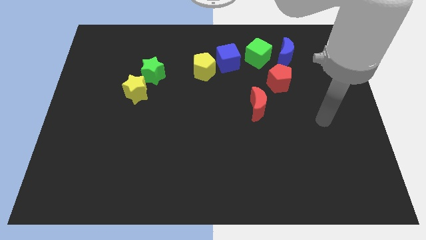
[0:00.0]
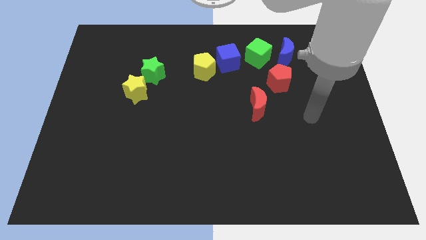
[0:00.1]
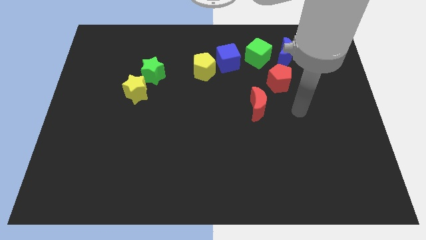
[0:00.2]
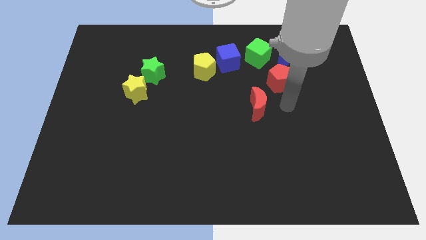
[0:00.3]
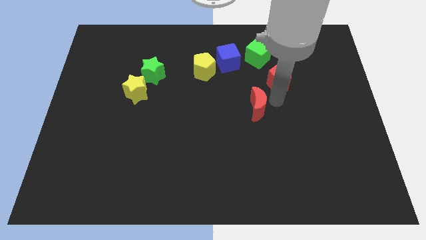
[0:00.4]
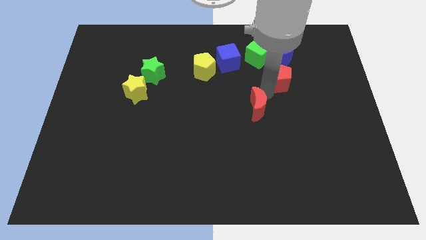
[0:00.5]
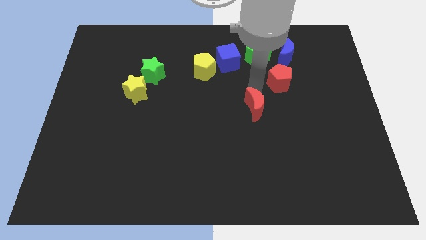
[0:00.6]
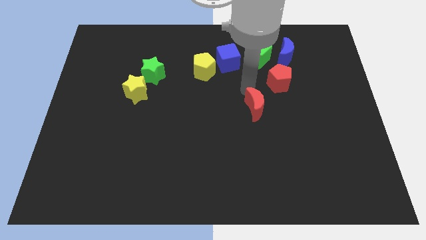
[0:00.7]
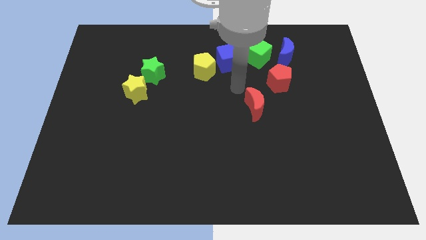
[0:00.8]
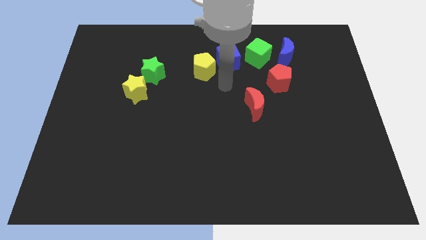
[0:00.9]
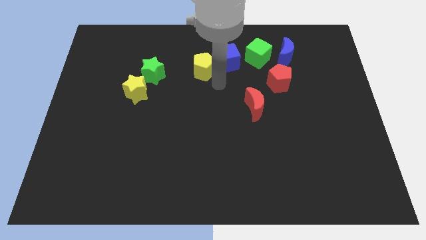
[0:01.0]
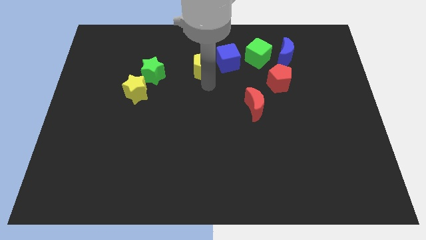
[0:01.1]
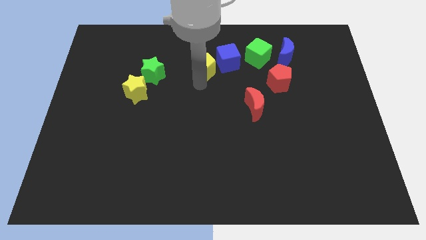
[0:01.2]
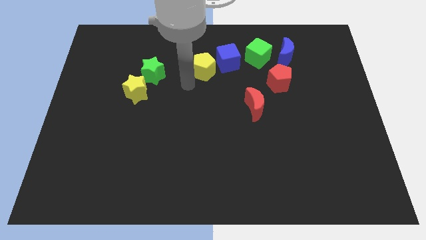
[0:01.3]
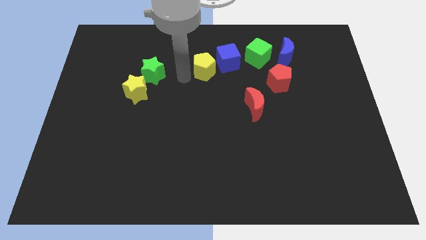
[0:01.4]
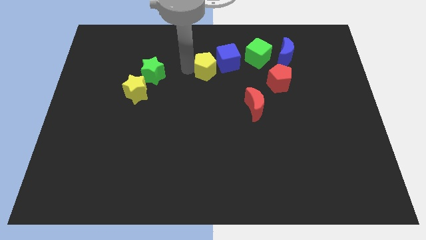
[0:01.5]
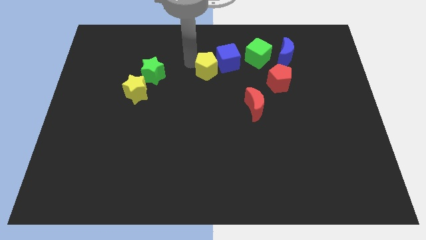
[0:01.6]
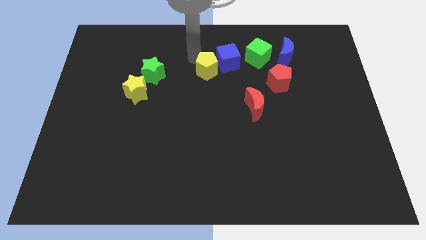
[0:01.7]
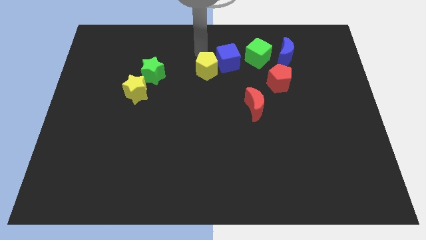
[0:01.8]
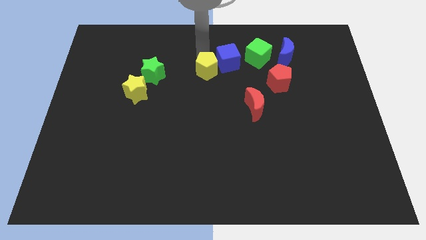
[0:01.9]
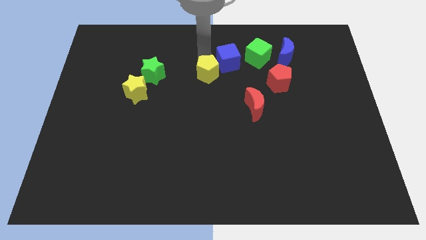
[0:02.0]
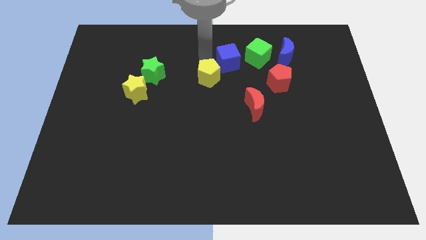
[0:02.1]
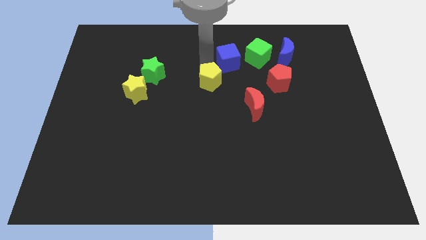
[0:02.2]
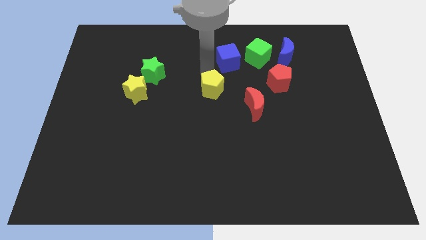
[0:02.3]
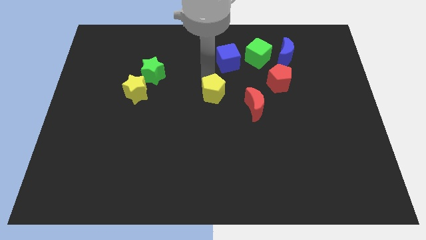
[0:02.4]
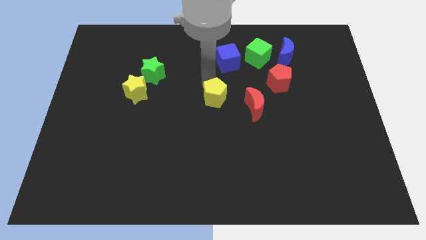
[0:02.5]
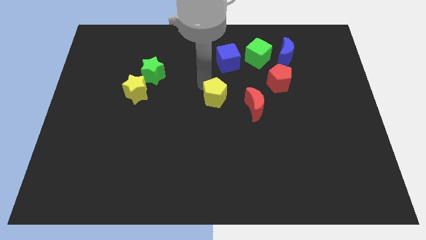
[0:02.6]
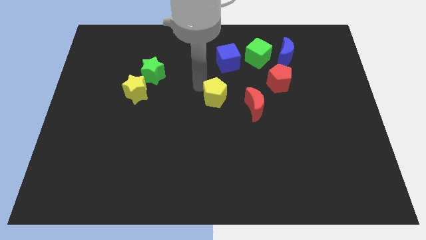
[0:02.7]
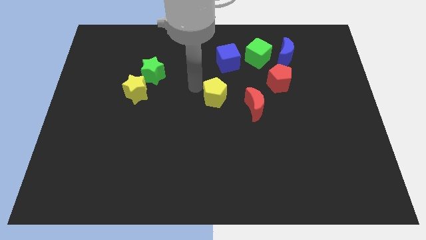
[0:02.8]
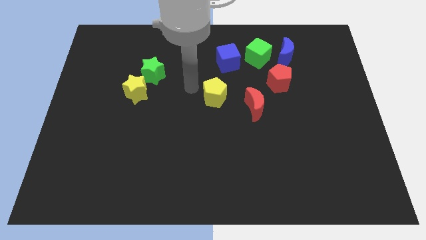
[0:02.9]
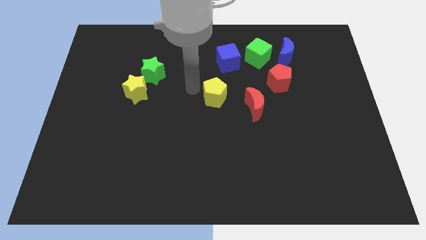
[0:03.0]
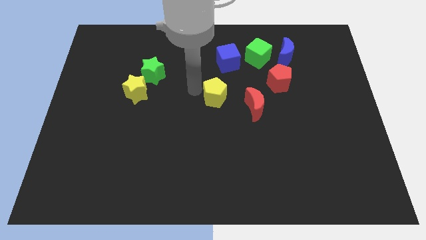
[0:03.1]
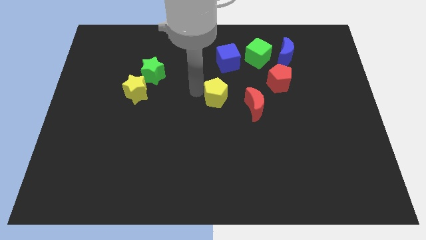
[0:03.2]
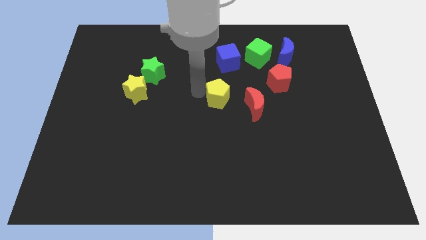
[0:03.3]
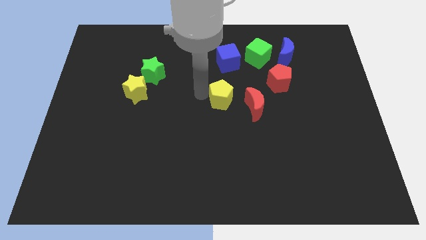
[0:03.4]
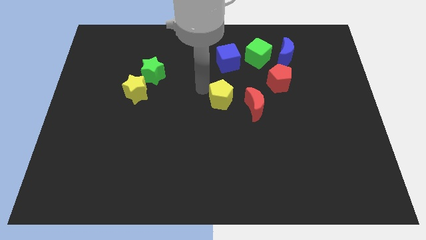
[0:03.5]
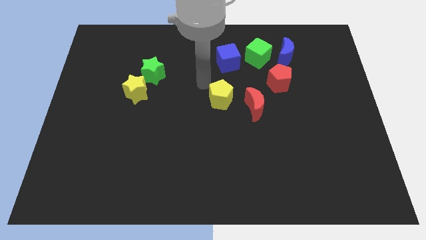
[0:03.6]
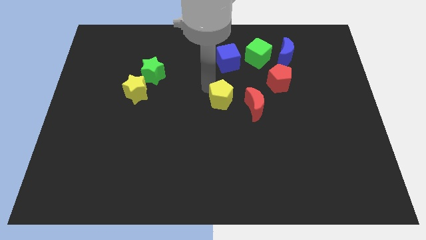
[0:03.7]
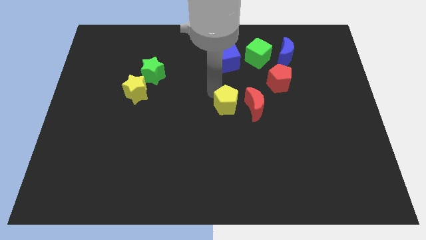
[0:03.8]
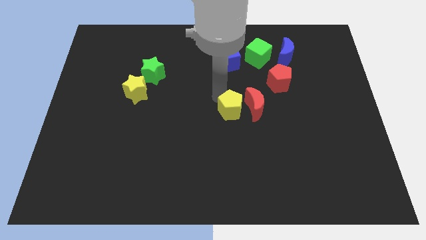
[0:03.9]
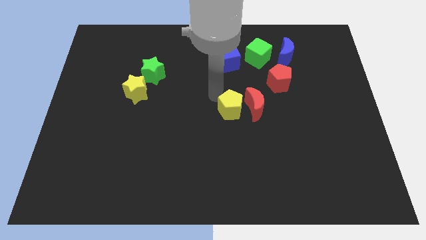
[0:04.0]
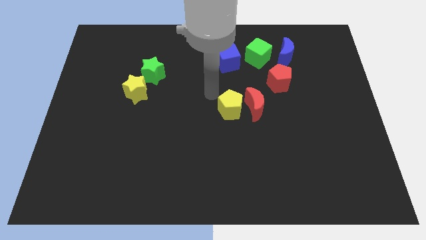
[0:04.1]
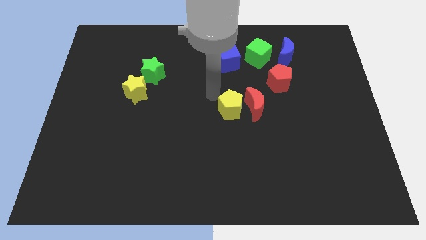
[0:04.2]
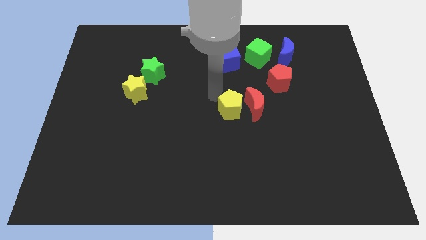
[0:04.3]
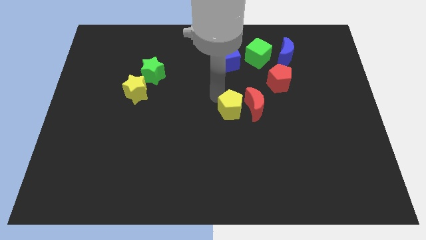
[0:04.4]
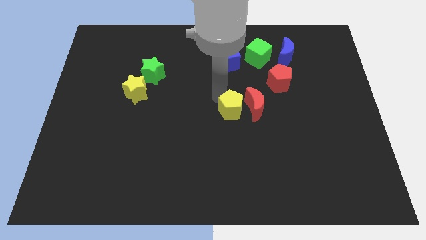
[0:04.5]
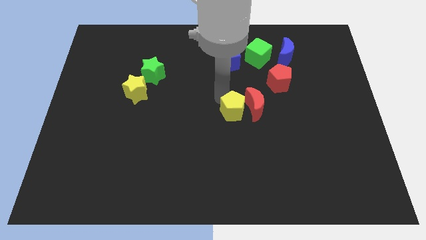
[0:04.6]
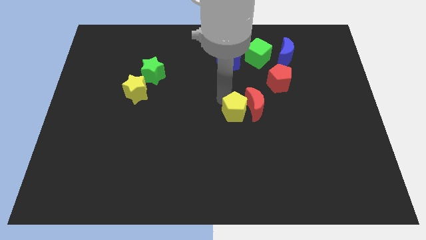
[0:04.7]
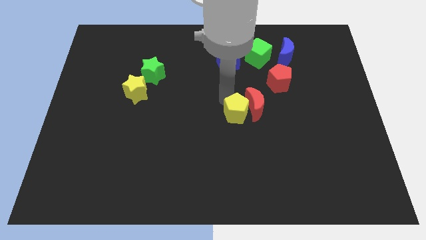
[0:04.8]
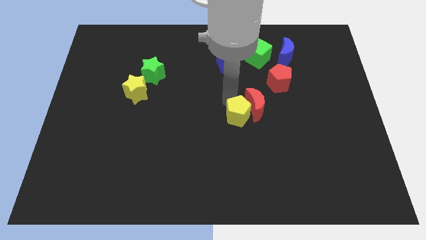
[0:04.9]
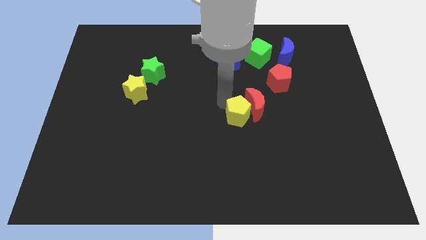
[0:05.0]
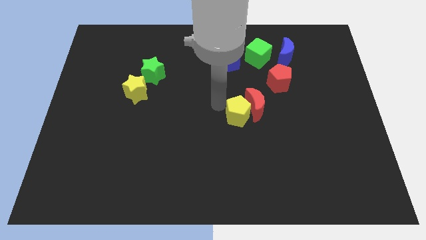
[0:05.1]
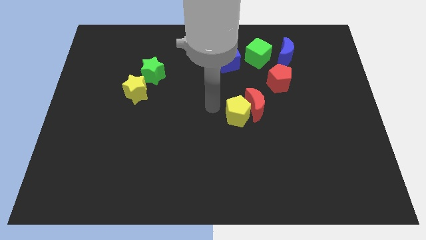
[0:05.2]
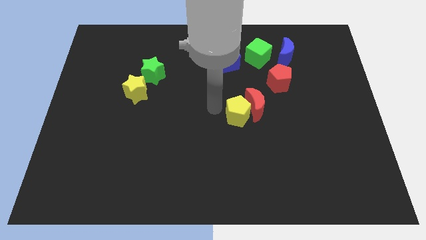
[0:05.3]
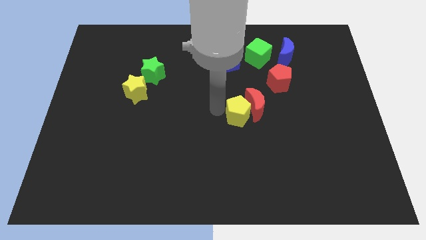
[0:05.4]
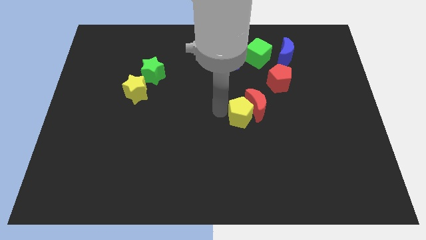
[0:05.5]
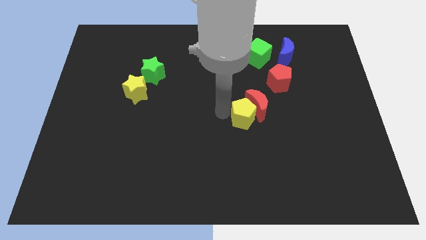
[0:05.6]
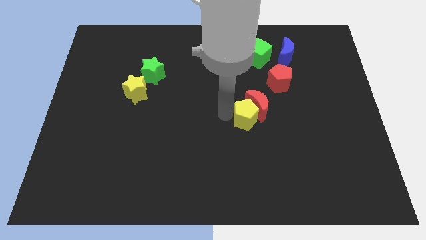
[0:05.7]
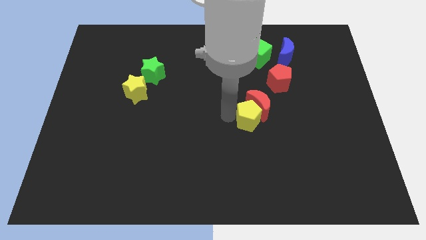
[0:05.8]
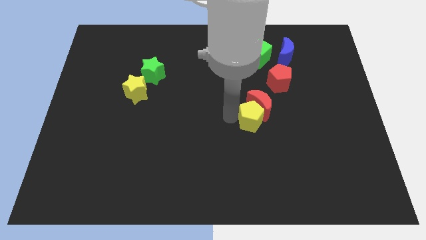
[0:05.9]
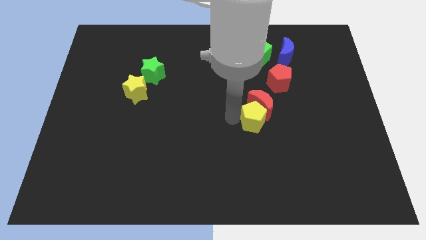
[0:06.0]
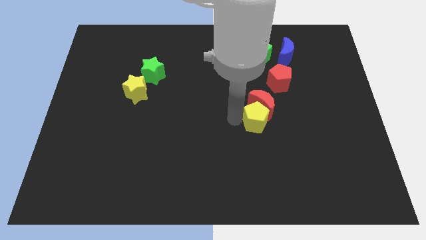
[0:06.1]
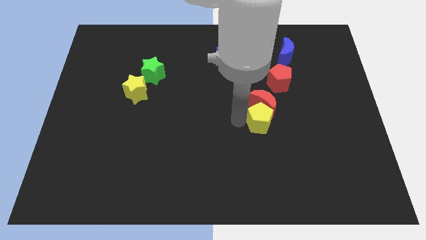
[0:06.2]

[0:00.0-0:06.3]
slide the yellow pentagon downwards and to the right

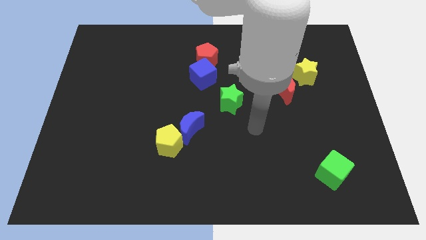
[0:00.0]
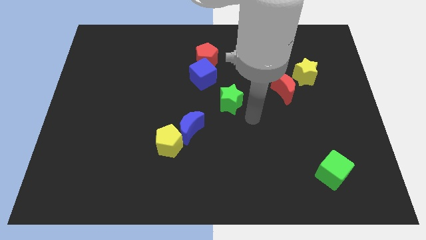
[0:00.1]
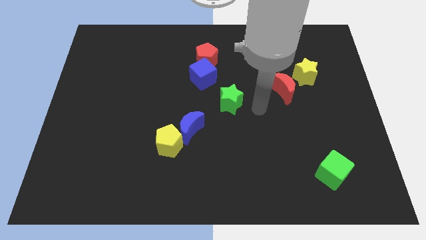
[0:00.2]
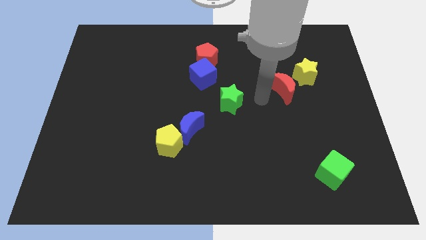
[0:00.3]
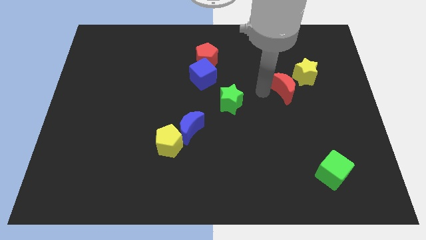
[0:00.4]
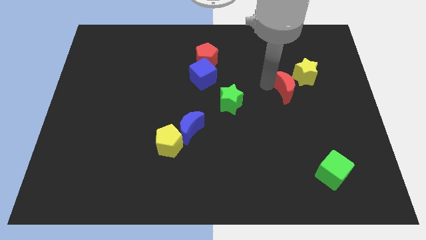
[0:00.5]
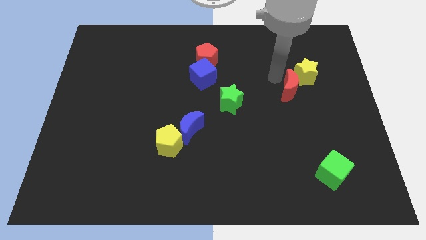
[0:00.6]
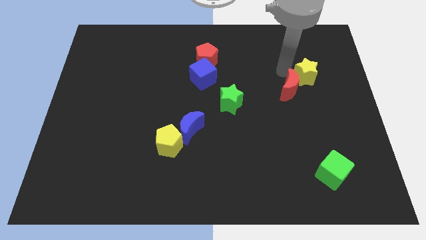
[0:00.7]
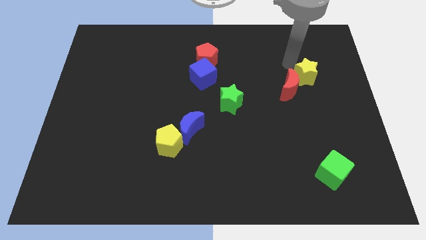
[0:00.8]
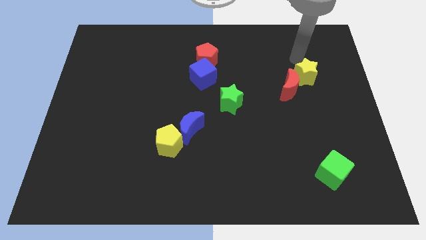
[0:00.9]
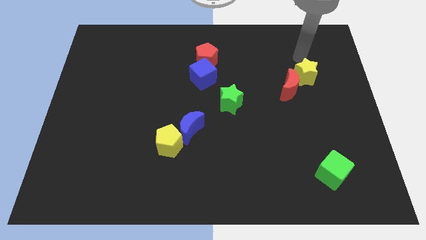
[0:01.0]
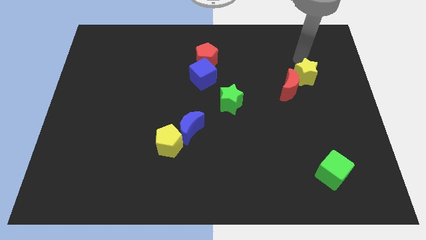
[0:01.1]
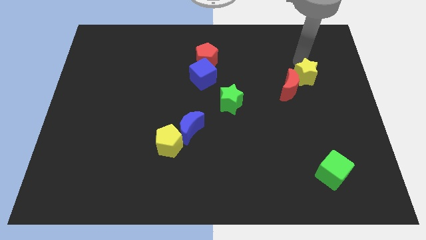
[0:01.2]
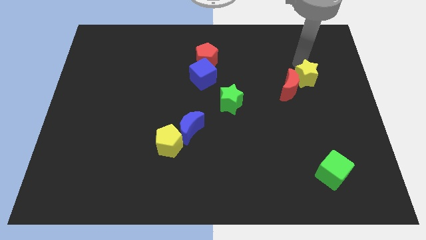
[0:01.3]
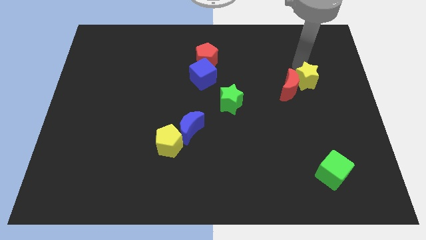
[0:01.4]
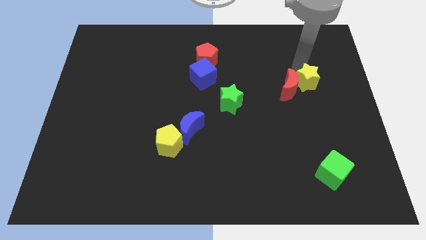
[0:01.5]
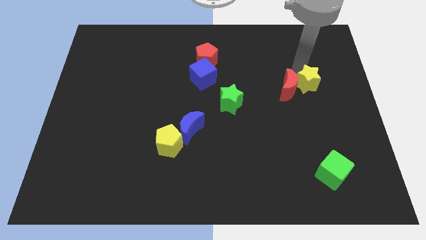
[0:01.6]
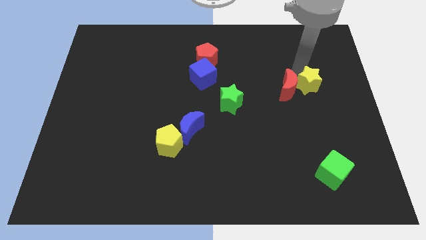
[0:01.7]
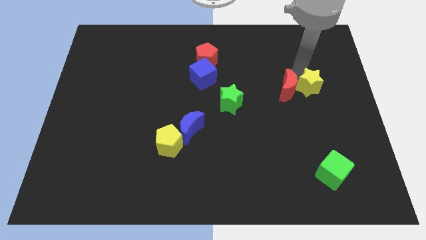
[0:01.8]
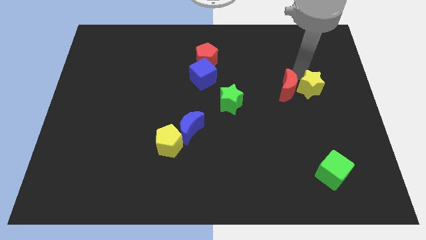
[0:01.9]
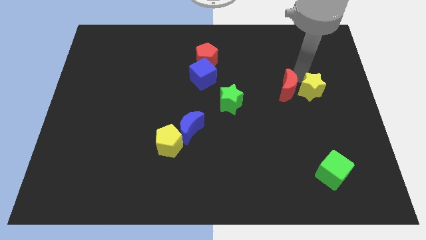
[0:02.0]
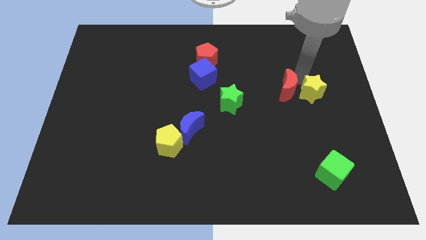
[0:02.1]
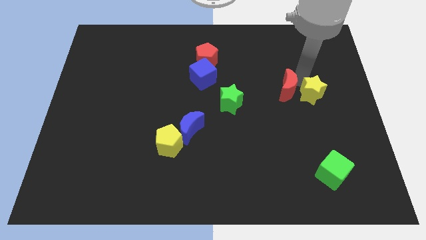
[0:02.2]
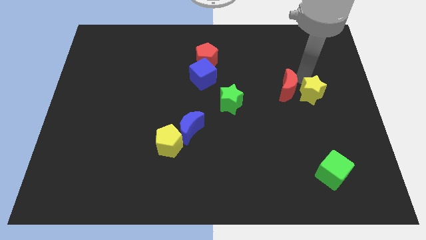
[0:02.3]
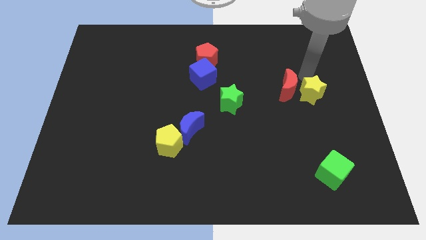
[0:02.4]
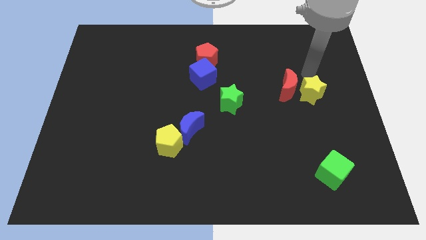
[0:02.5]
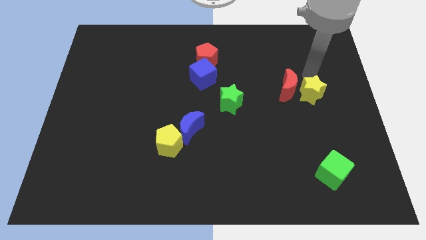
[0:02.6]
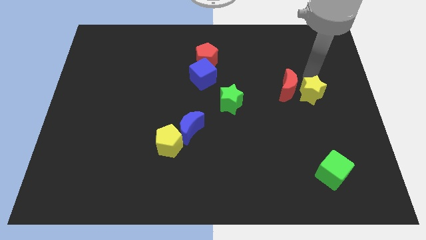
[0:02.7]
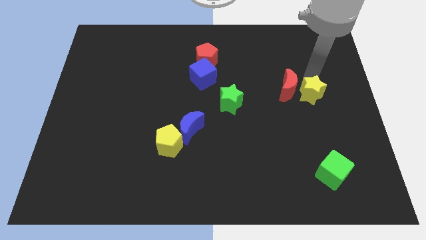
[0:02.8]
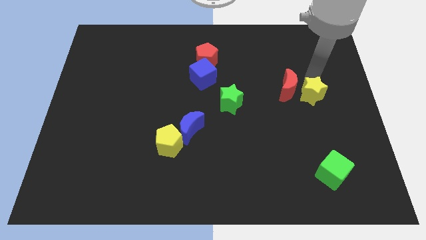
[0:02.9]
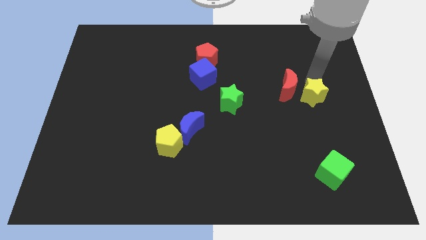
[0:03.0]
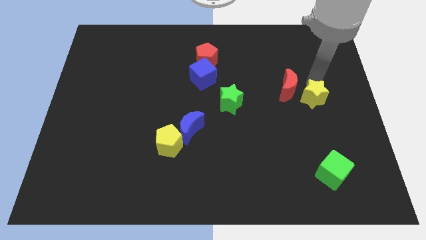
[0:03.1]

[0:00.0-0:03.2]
push the yellow star somewhat downwards
